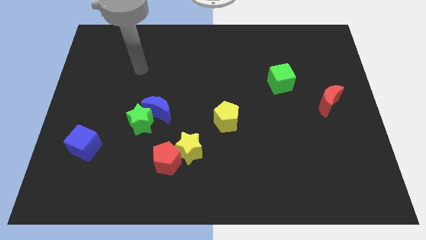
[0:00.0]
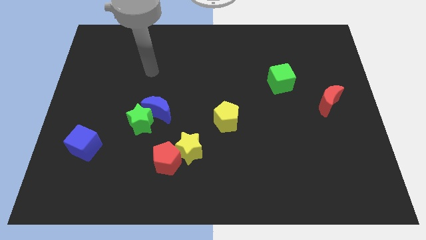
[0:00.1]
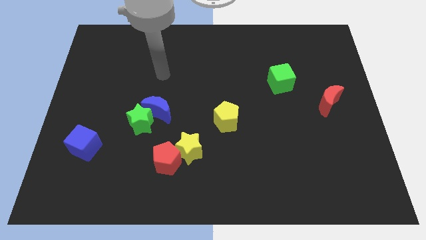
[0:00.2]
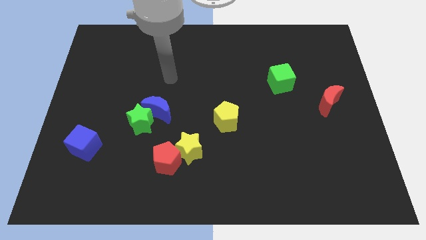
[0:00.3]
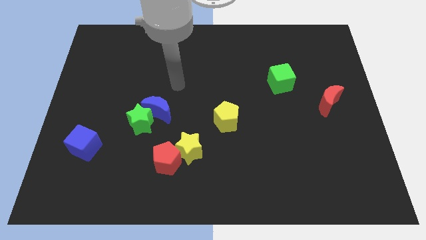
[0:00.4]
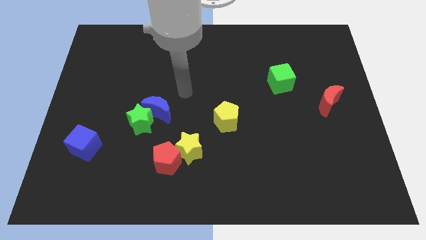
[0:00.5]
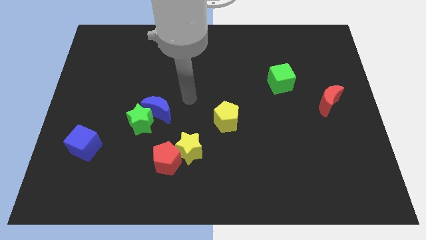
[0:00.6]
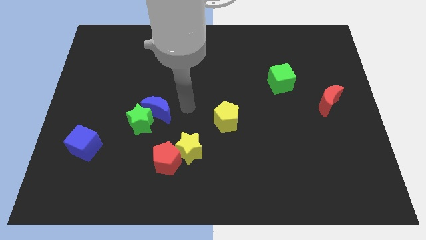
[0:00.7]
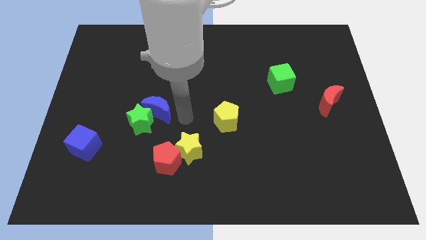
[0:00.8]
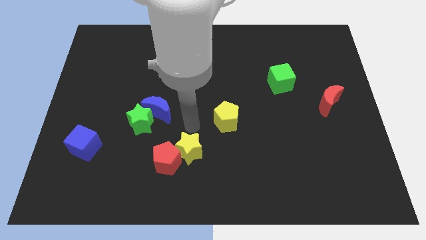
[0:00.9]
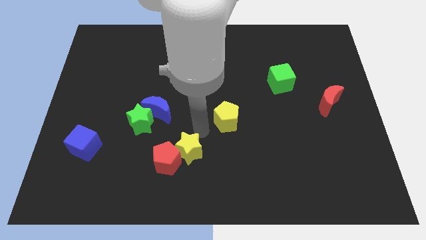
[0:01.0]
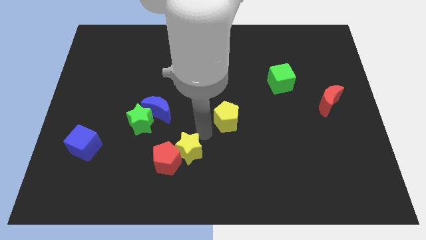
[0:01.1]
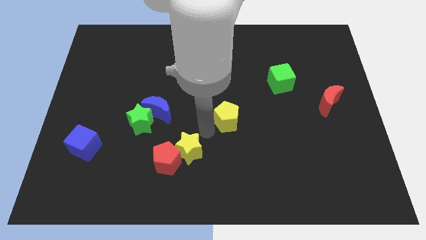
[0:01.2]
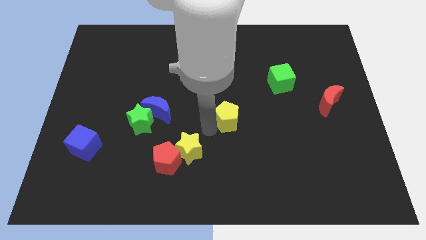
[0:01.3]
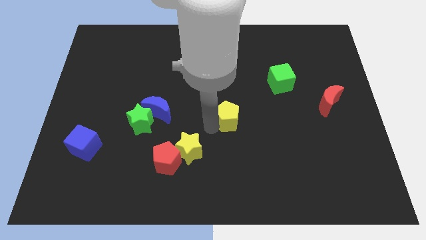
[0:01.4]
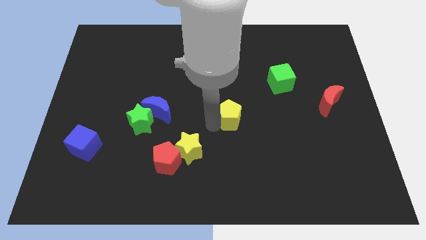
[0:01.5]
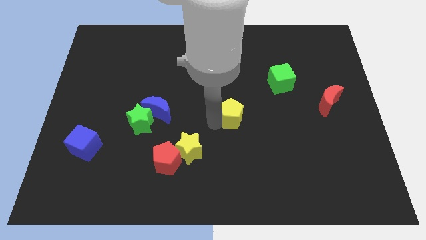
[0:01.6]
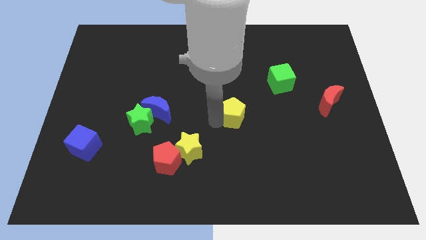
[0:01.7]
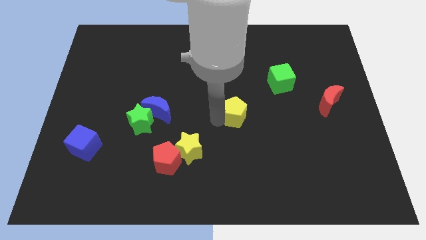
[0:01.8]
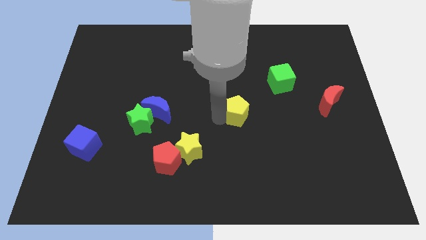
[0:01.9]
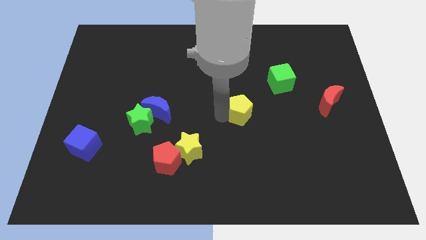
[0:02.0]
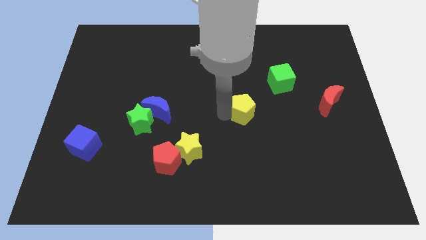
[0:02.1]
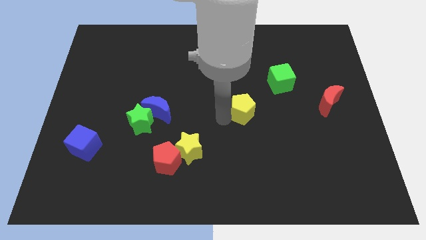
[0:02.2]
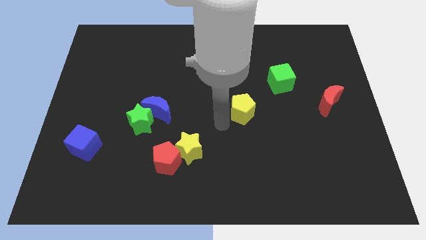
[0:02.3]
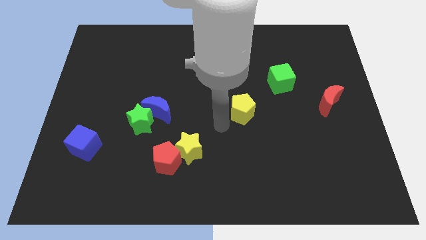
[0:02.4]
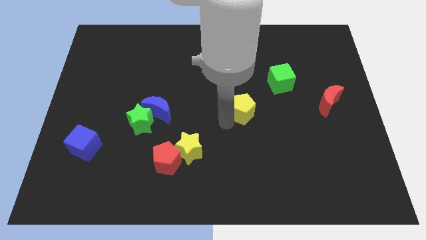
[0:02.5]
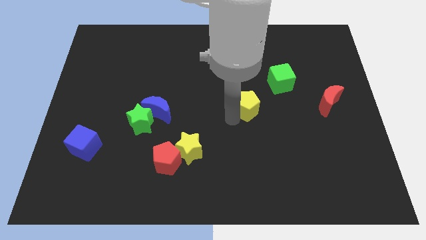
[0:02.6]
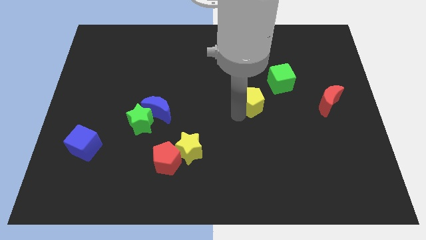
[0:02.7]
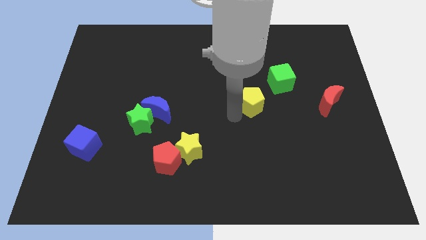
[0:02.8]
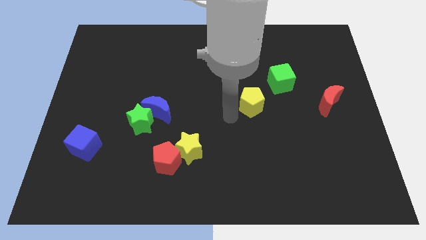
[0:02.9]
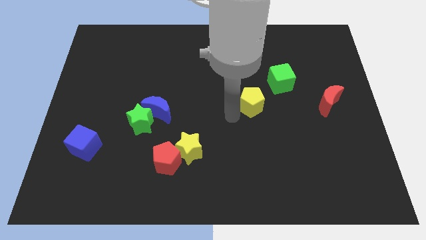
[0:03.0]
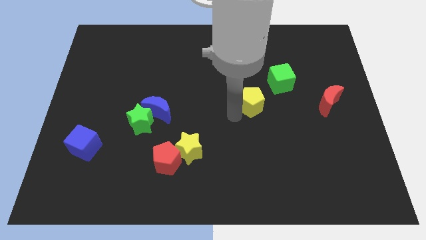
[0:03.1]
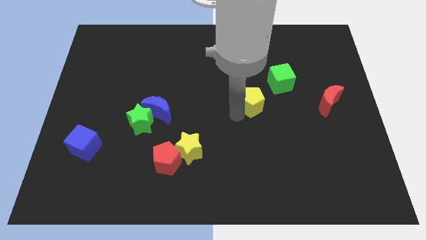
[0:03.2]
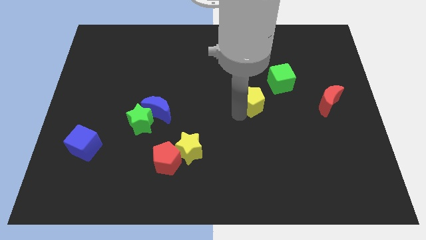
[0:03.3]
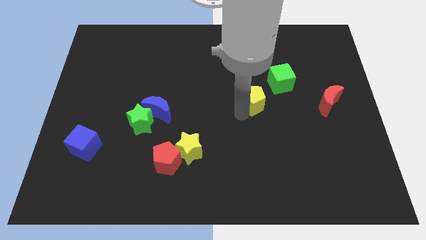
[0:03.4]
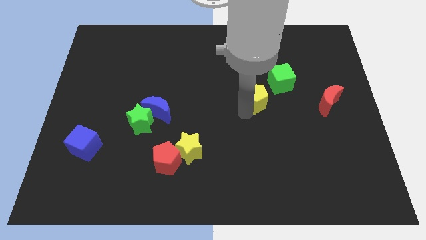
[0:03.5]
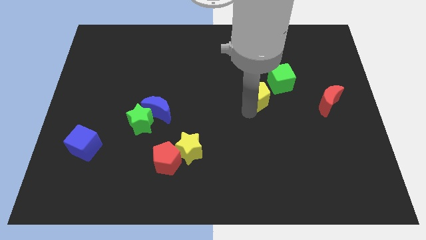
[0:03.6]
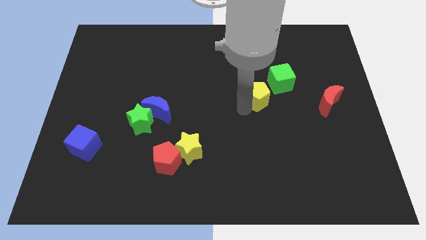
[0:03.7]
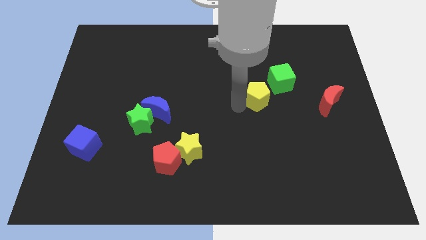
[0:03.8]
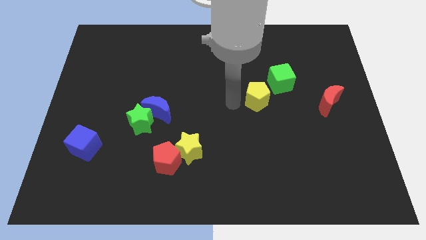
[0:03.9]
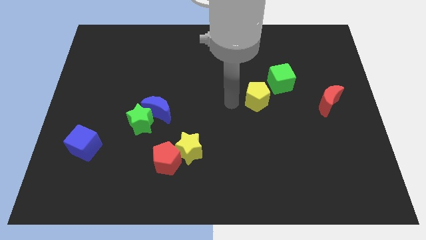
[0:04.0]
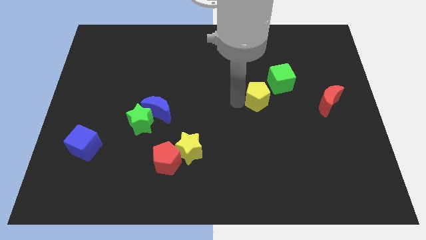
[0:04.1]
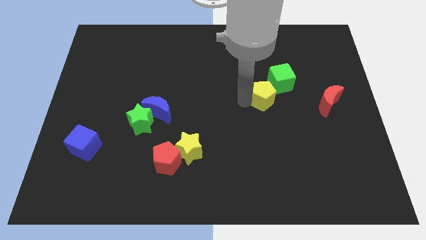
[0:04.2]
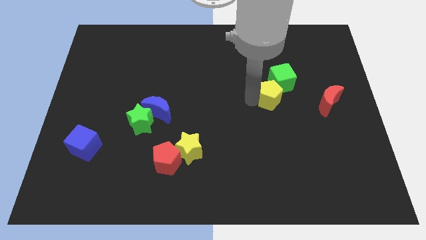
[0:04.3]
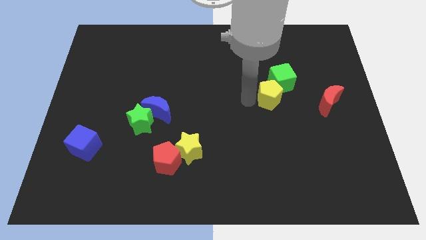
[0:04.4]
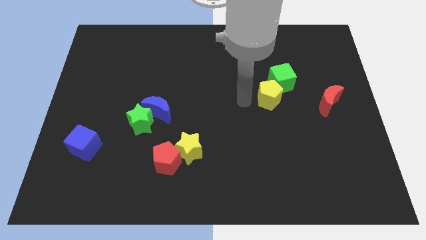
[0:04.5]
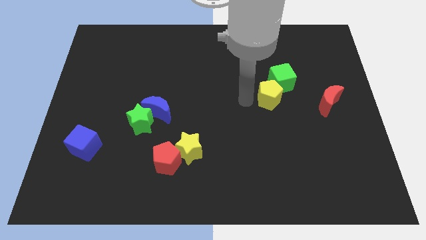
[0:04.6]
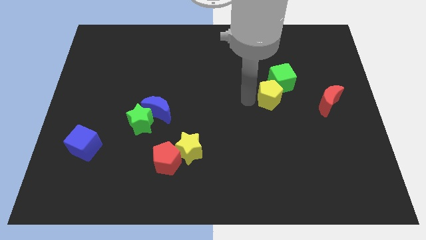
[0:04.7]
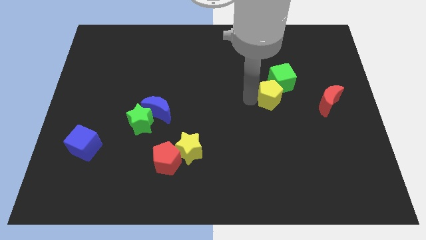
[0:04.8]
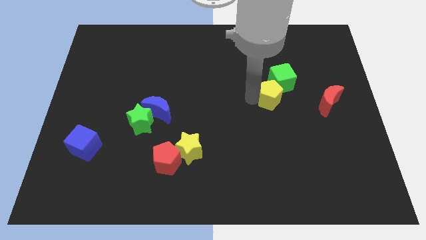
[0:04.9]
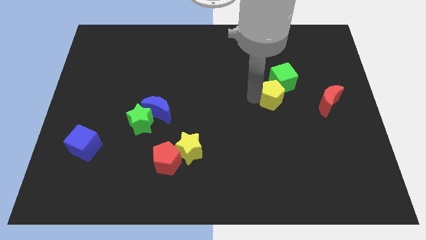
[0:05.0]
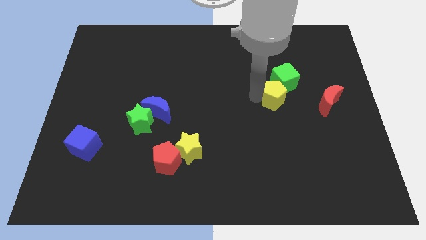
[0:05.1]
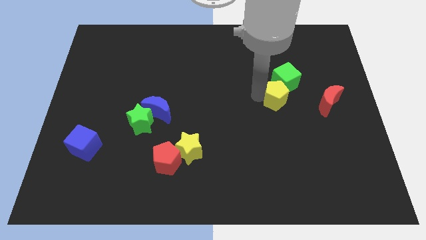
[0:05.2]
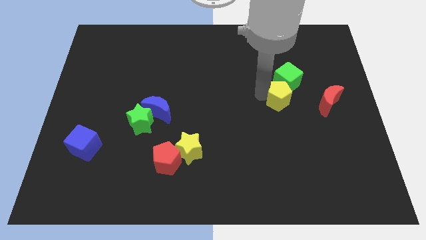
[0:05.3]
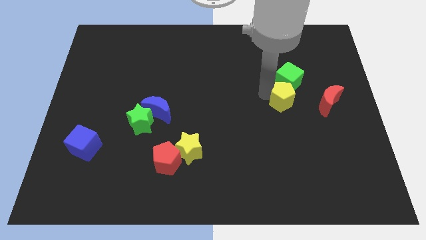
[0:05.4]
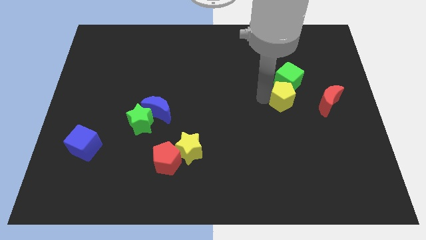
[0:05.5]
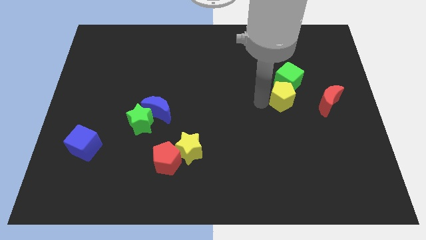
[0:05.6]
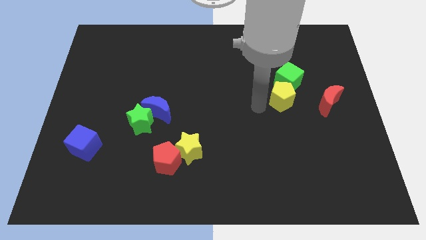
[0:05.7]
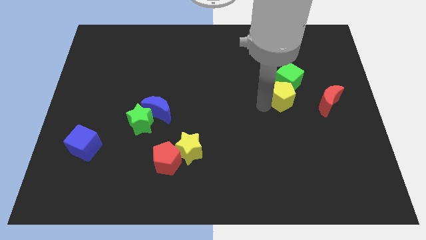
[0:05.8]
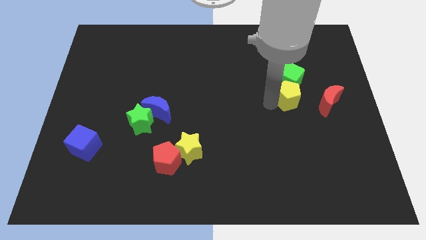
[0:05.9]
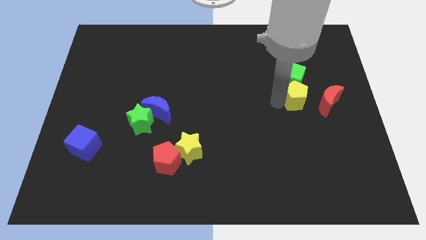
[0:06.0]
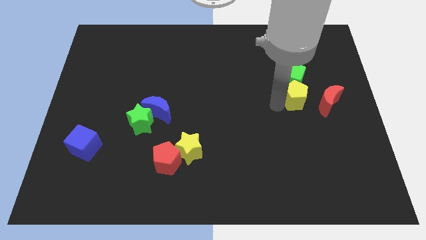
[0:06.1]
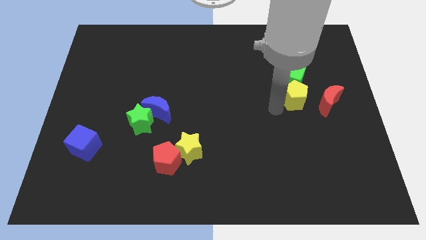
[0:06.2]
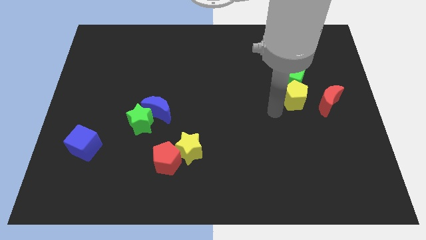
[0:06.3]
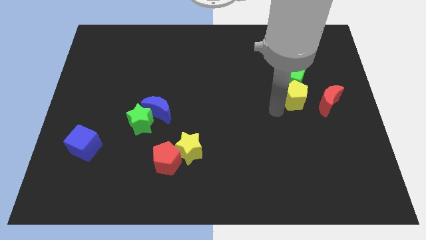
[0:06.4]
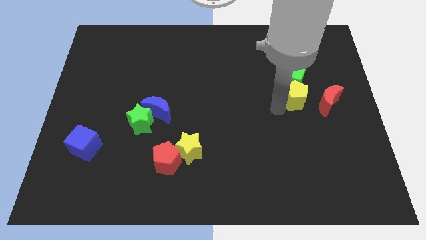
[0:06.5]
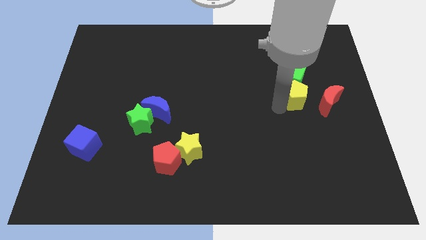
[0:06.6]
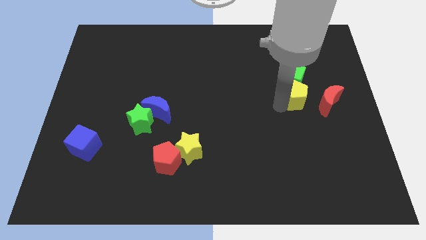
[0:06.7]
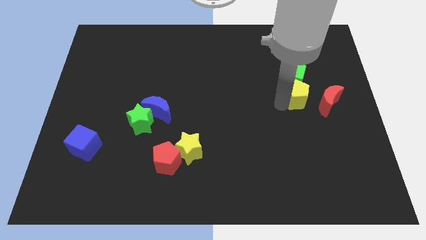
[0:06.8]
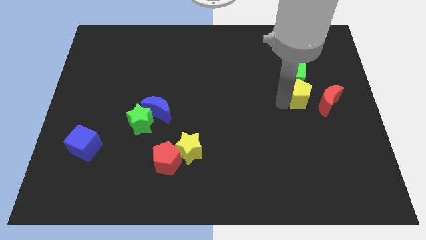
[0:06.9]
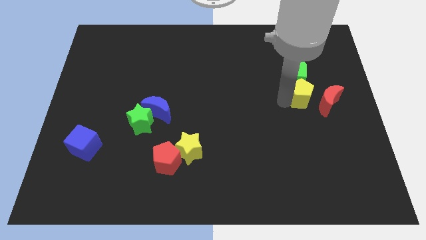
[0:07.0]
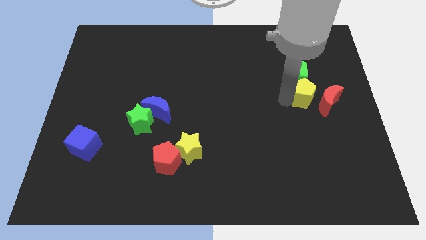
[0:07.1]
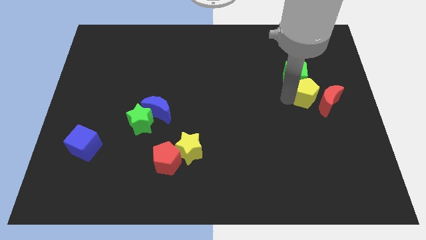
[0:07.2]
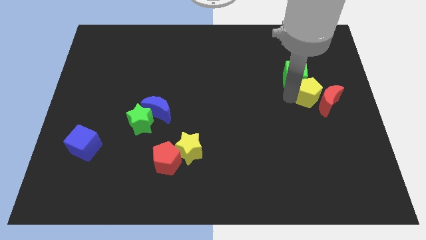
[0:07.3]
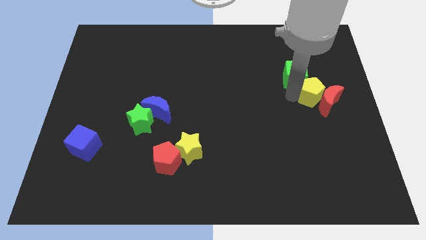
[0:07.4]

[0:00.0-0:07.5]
put the yellow pentagon to the top of the red moon

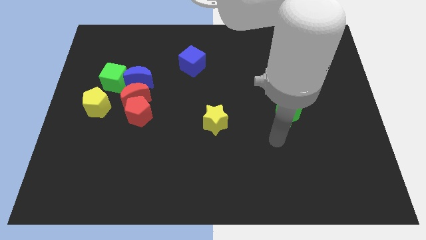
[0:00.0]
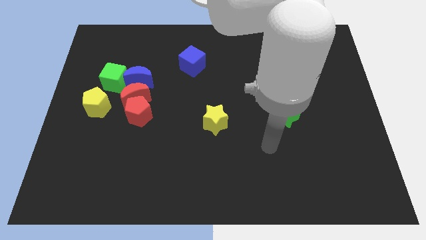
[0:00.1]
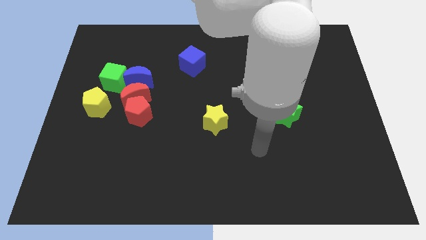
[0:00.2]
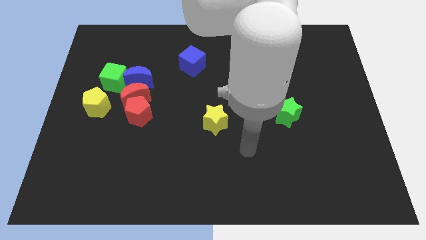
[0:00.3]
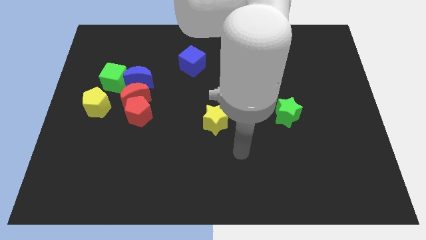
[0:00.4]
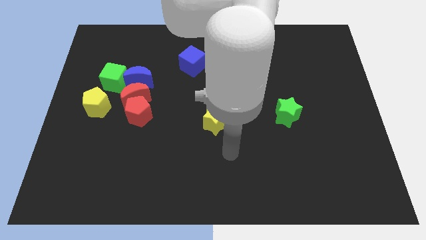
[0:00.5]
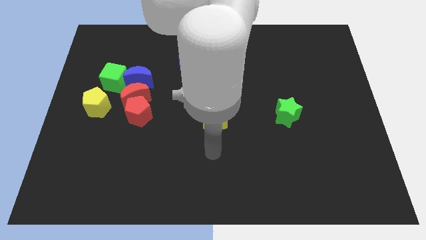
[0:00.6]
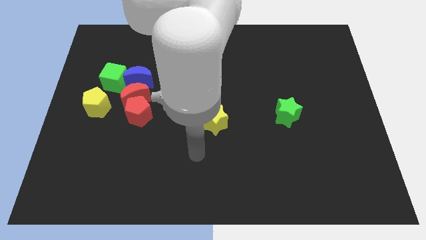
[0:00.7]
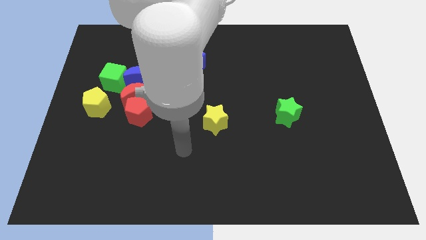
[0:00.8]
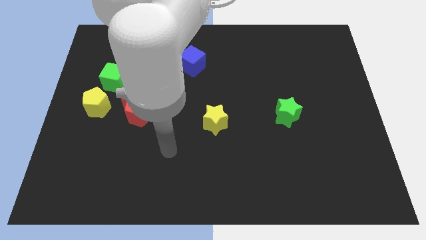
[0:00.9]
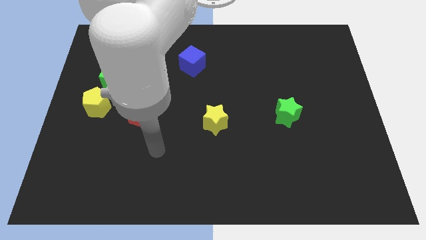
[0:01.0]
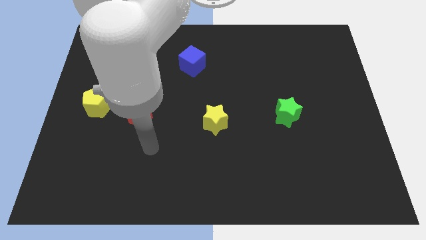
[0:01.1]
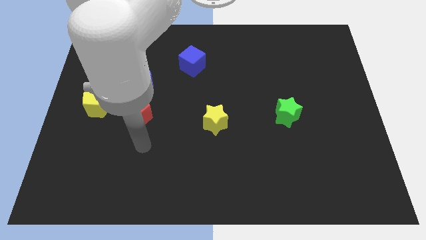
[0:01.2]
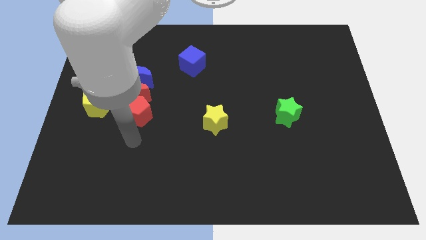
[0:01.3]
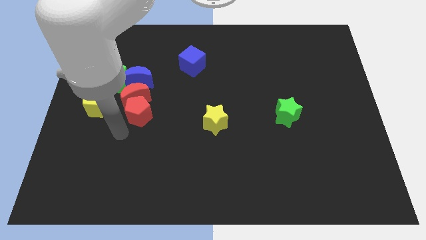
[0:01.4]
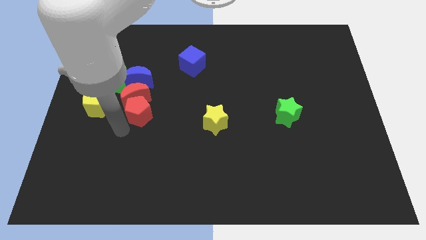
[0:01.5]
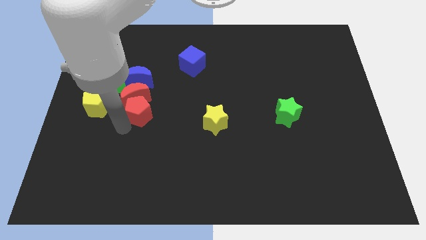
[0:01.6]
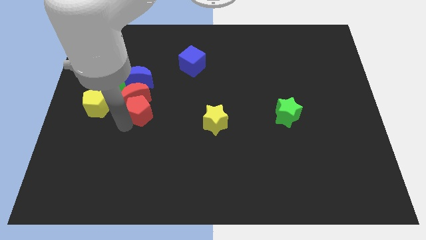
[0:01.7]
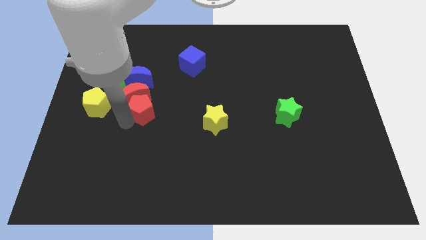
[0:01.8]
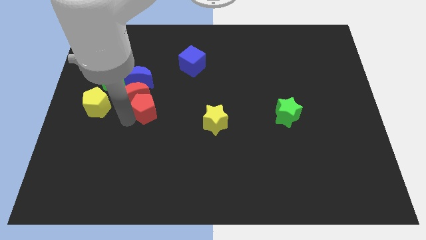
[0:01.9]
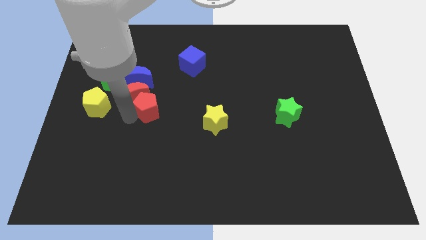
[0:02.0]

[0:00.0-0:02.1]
move the red pentagon diagonally down and to the right of the blue moon
